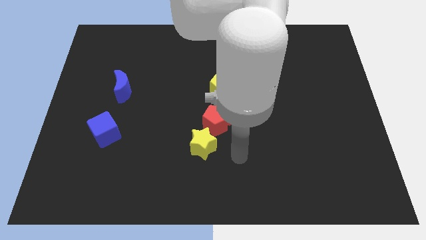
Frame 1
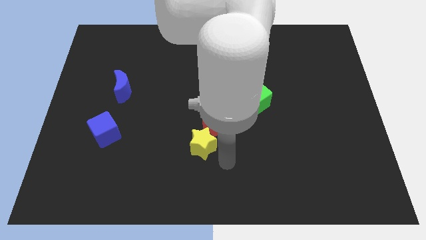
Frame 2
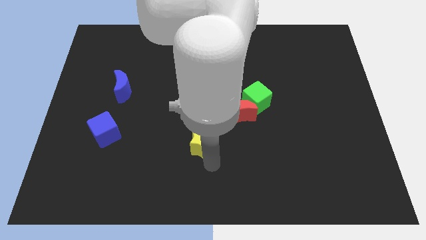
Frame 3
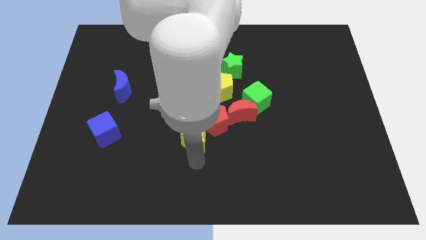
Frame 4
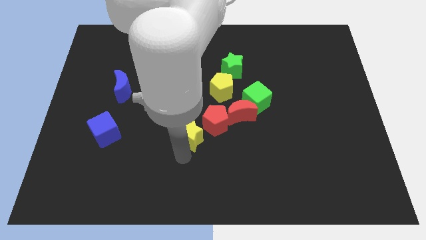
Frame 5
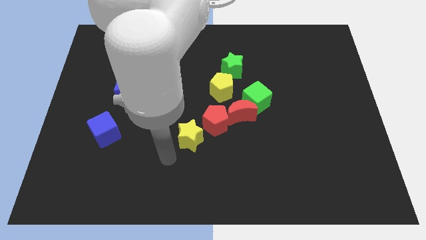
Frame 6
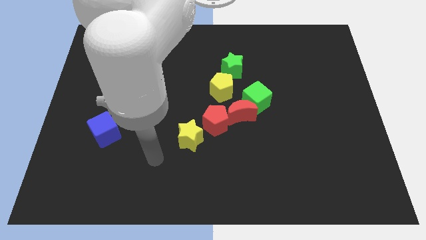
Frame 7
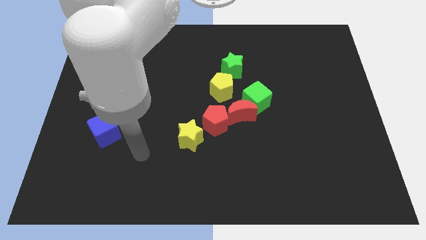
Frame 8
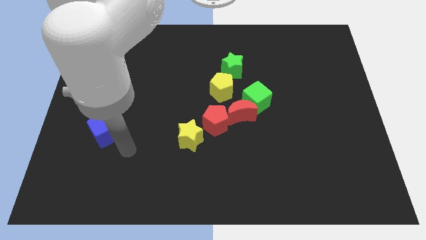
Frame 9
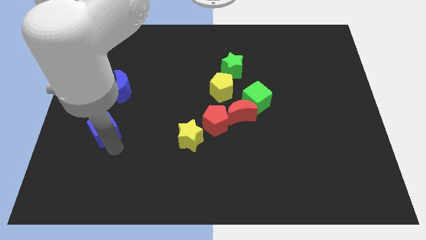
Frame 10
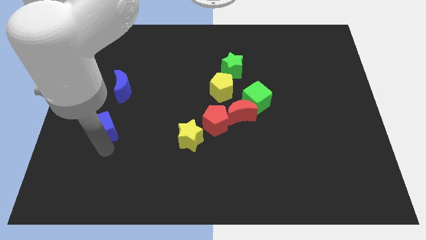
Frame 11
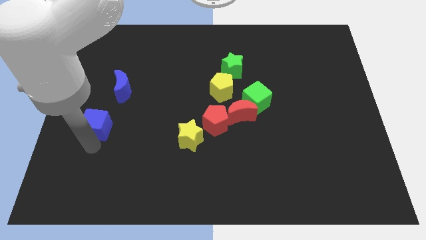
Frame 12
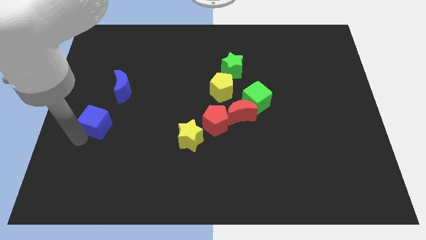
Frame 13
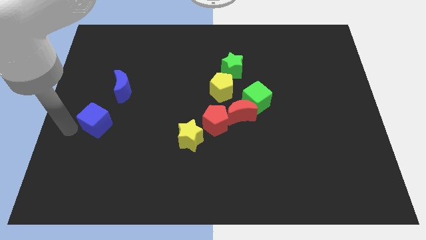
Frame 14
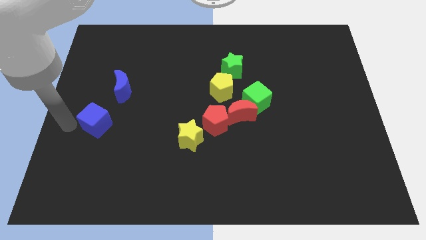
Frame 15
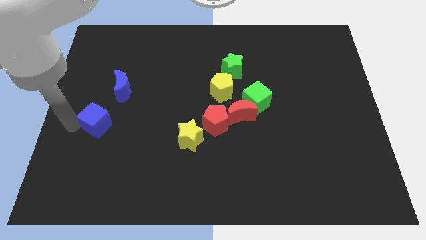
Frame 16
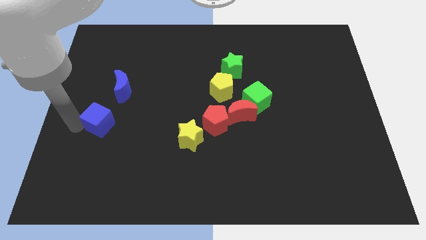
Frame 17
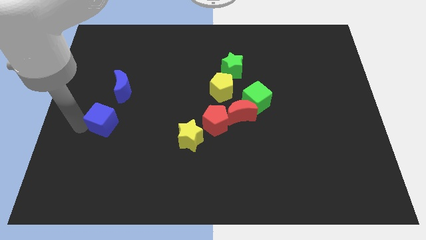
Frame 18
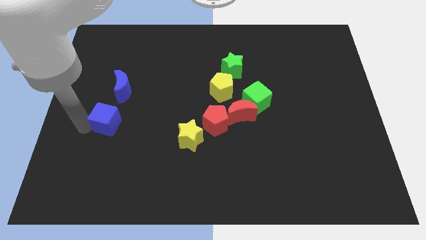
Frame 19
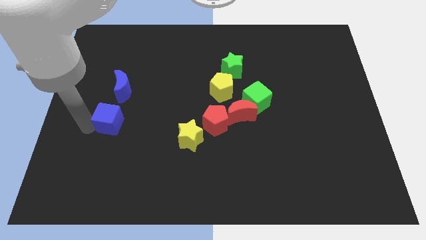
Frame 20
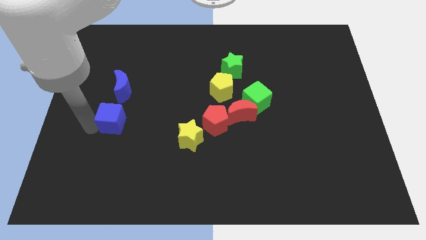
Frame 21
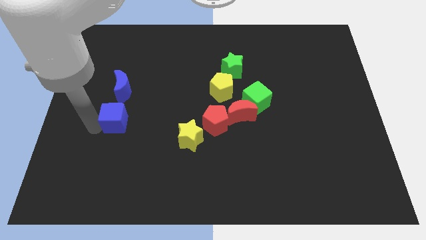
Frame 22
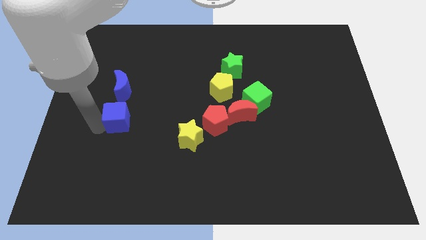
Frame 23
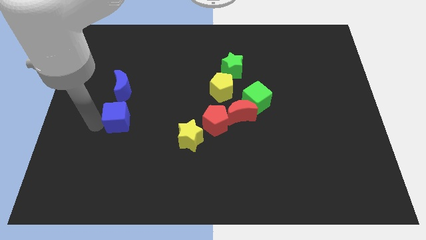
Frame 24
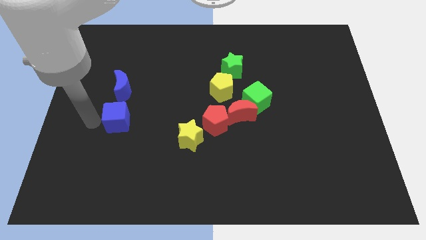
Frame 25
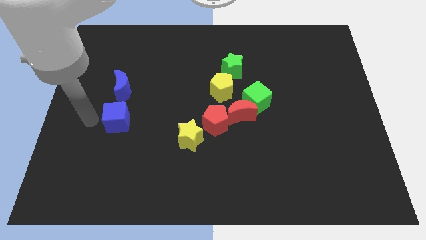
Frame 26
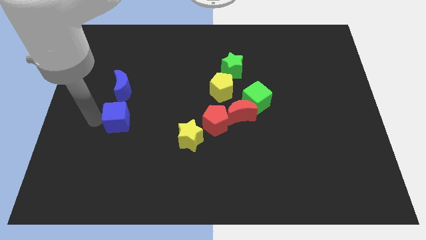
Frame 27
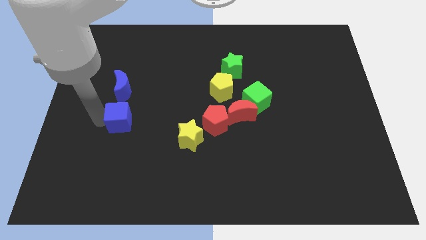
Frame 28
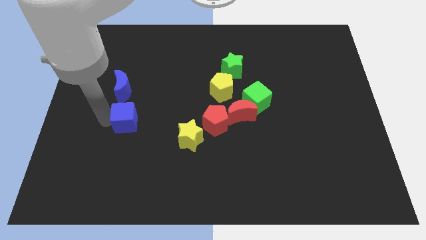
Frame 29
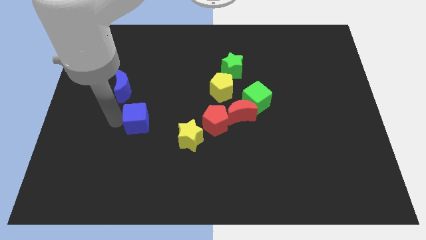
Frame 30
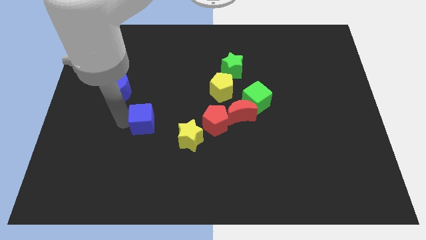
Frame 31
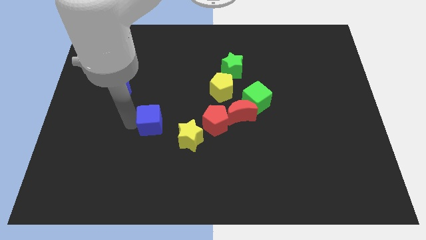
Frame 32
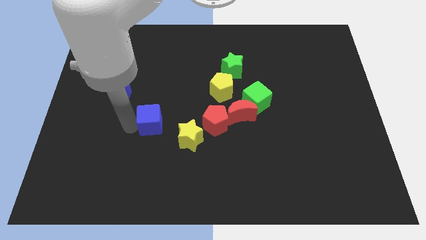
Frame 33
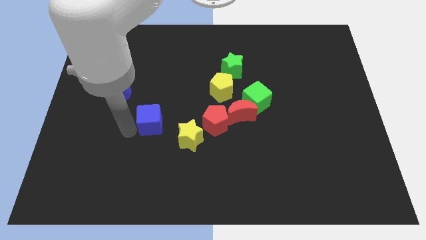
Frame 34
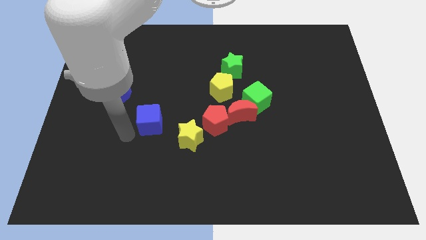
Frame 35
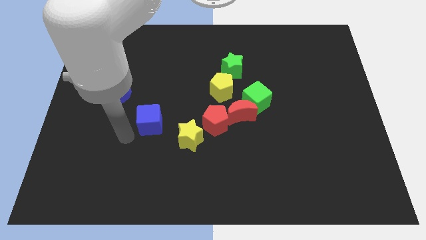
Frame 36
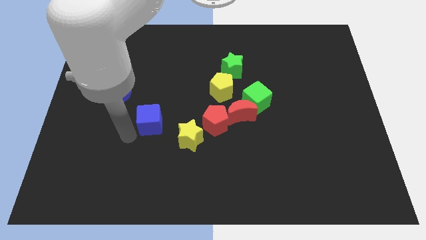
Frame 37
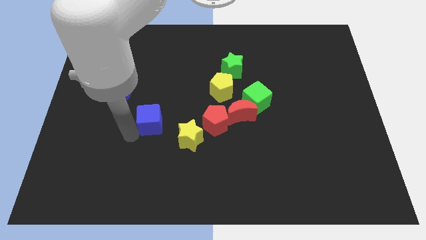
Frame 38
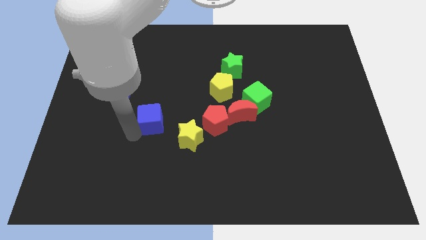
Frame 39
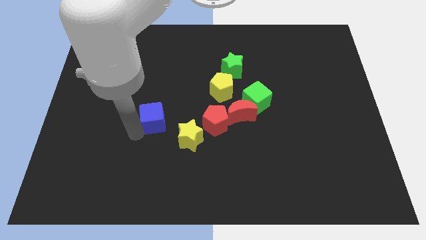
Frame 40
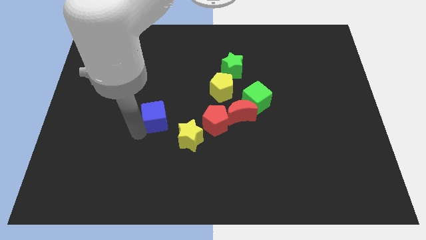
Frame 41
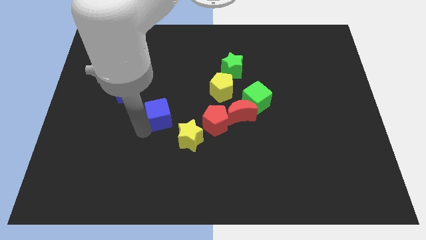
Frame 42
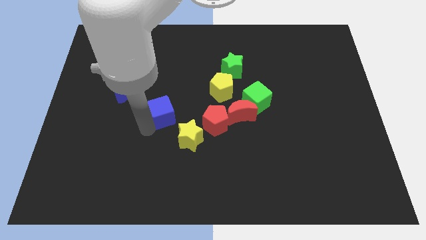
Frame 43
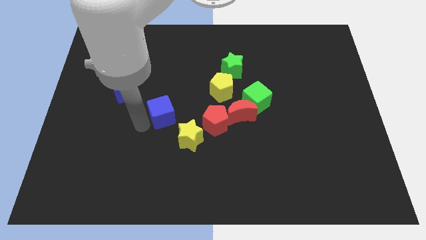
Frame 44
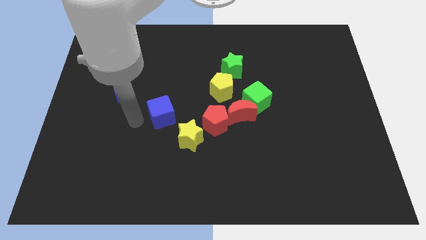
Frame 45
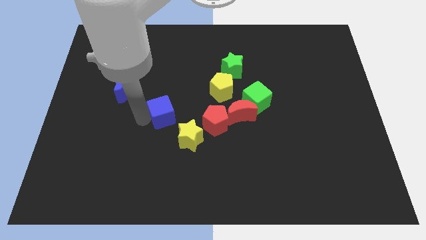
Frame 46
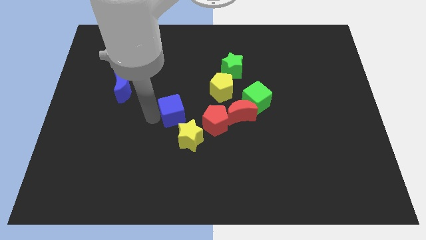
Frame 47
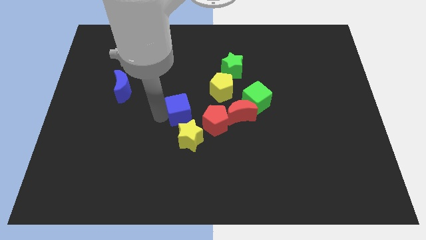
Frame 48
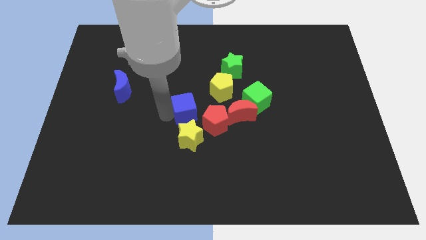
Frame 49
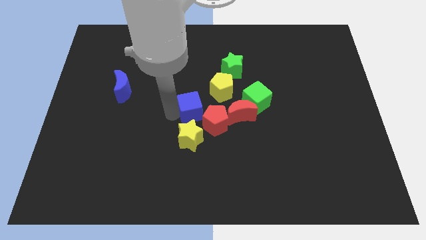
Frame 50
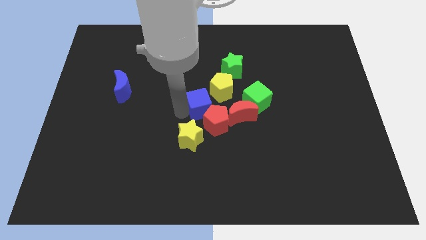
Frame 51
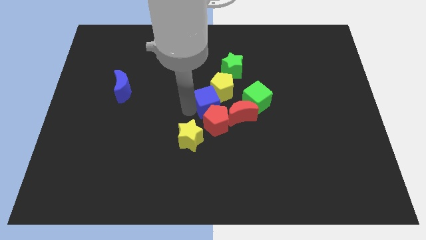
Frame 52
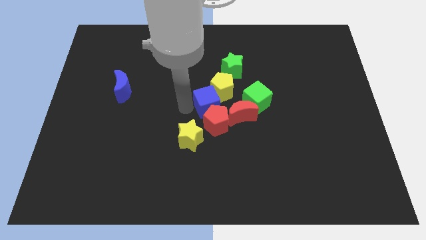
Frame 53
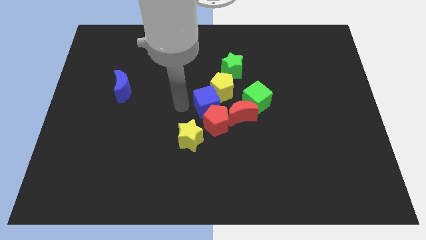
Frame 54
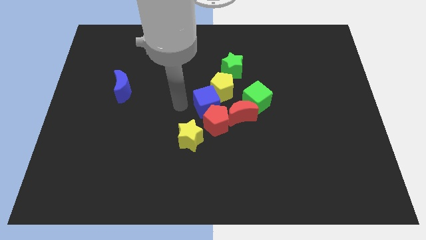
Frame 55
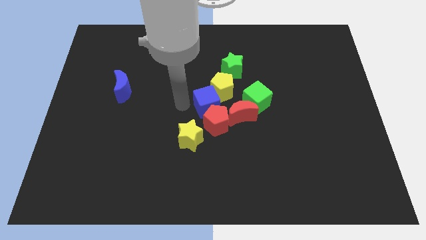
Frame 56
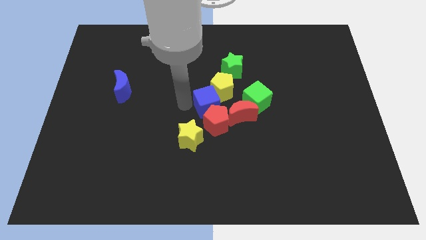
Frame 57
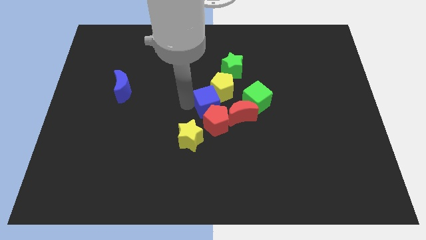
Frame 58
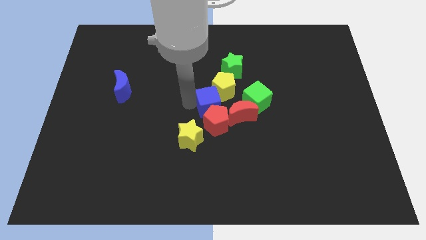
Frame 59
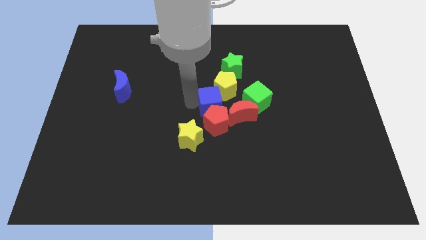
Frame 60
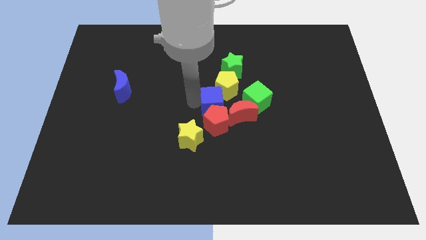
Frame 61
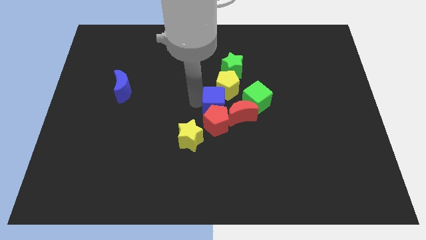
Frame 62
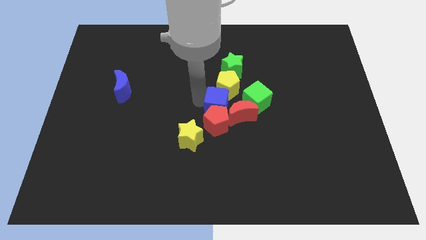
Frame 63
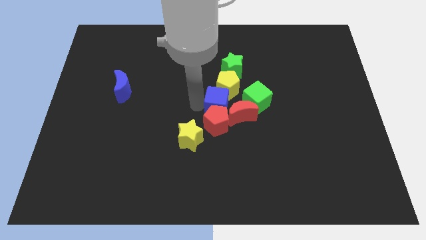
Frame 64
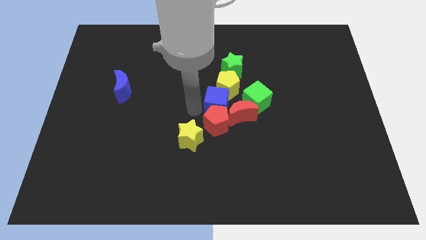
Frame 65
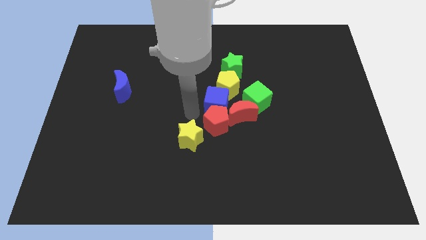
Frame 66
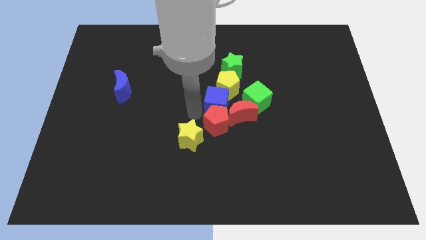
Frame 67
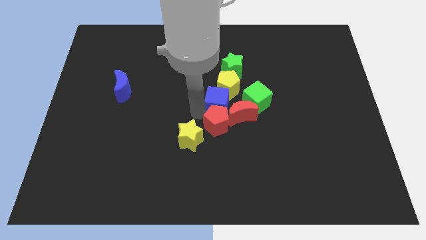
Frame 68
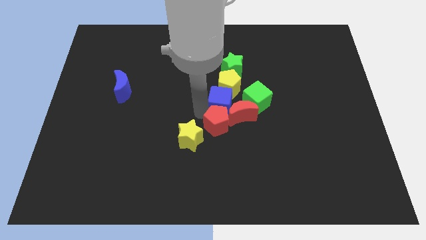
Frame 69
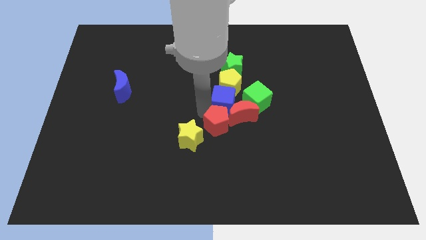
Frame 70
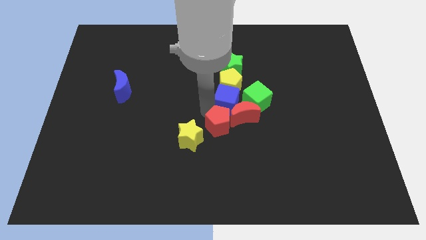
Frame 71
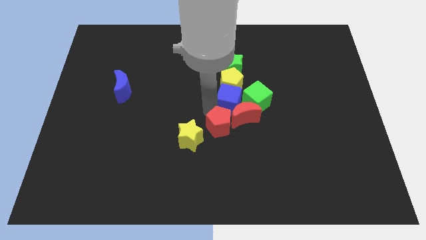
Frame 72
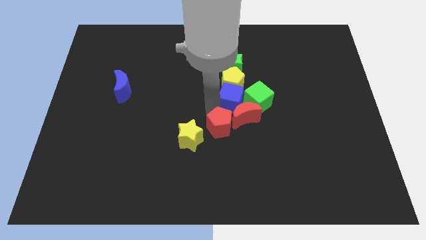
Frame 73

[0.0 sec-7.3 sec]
slide the blue cube close to the green cube

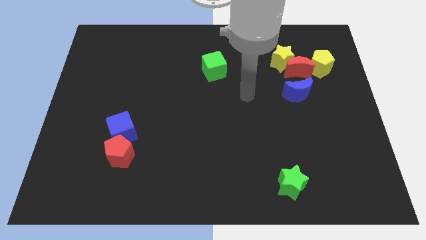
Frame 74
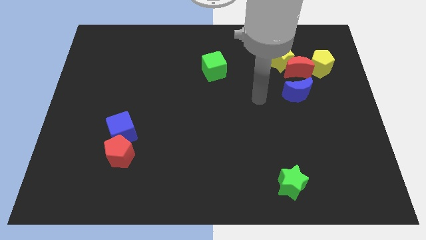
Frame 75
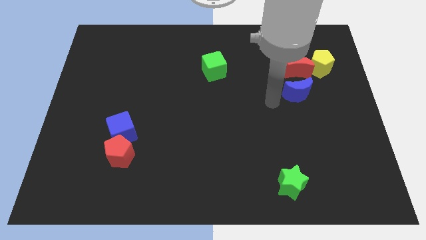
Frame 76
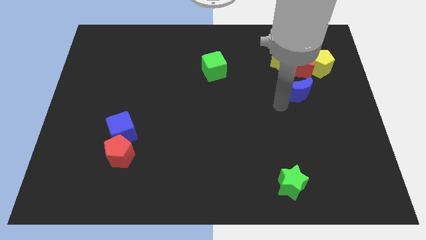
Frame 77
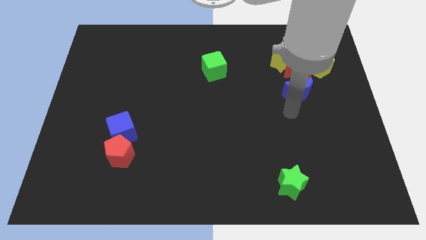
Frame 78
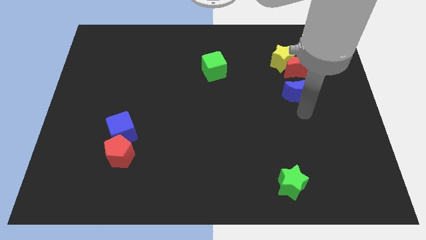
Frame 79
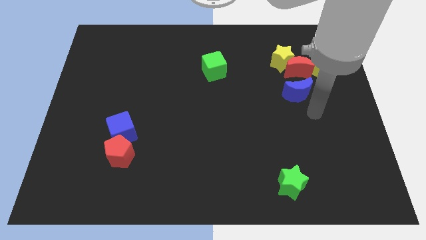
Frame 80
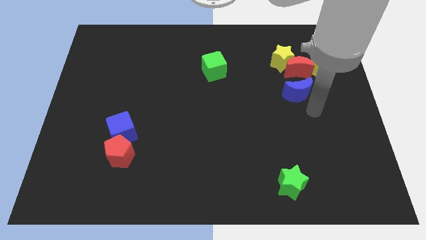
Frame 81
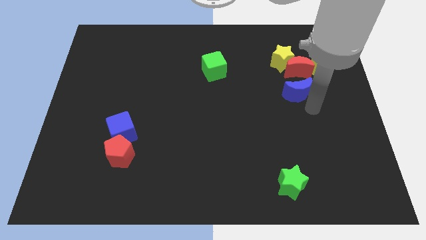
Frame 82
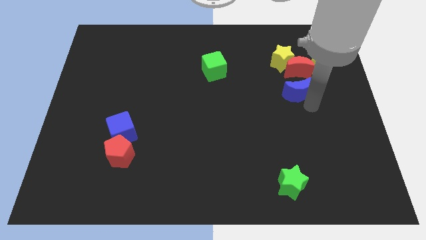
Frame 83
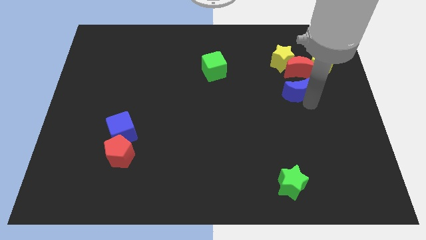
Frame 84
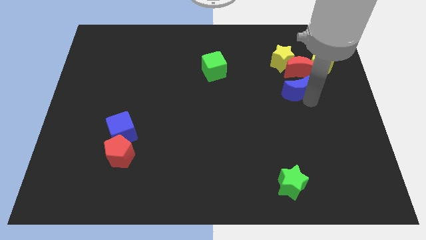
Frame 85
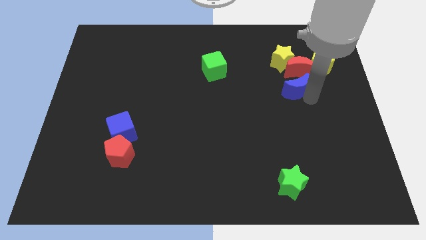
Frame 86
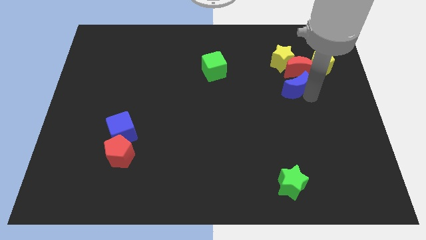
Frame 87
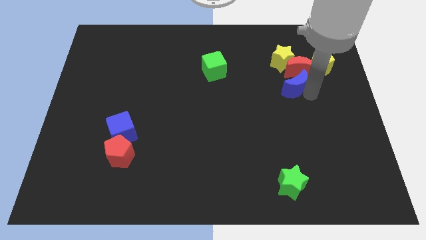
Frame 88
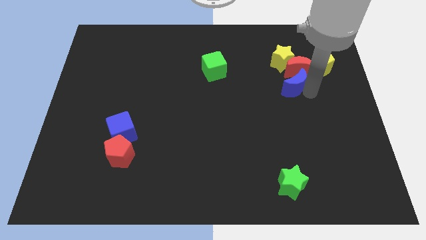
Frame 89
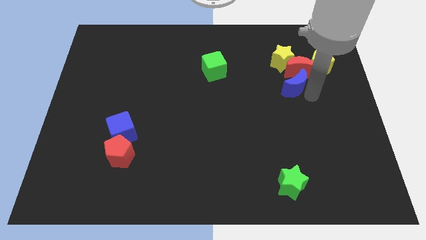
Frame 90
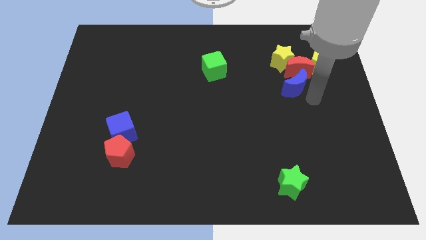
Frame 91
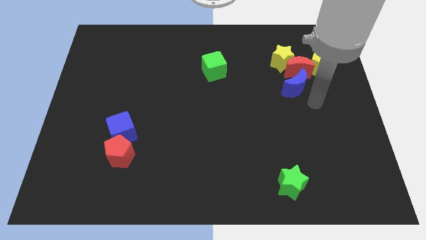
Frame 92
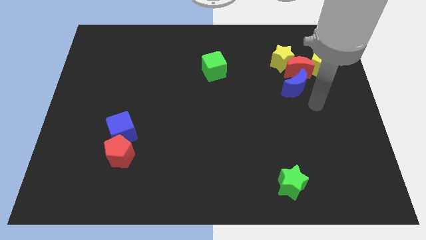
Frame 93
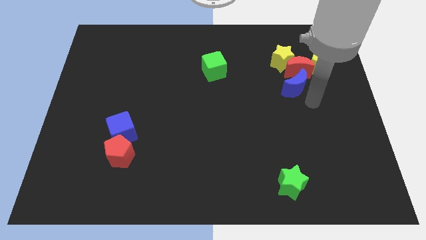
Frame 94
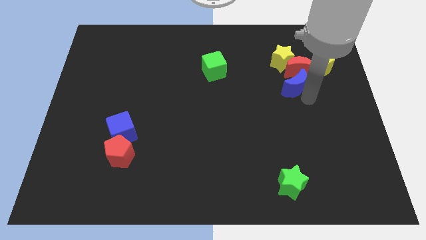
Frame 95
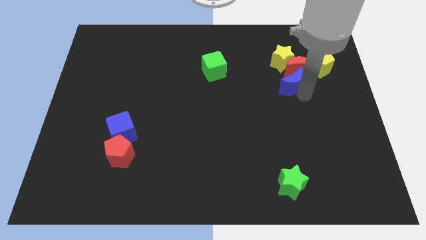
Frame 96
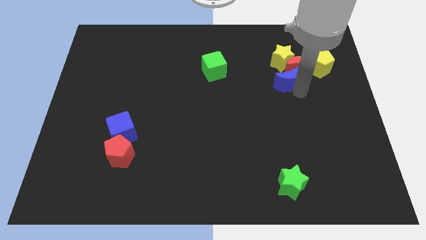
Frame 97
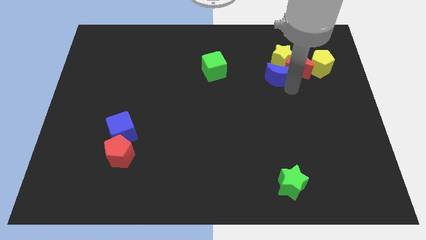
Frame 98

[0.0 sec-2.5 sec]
slide the blue moon next to the yellow star
